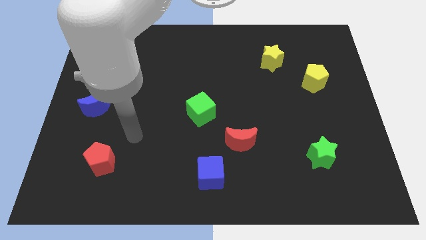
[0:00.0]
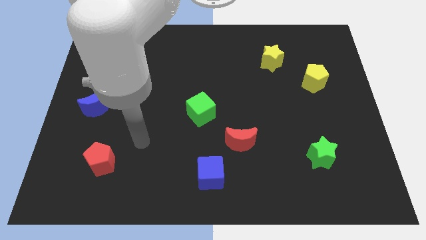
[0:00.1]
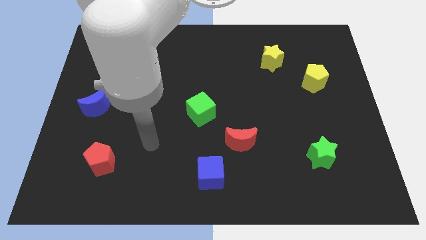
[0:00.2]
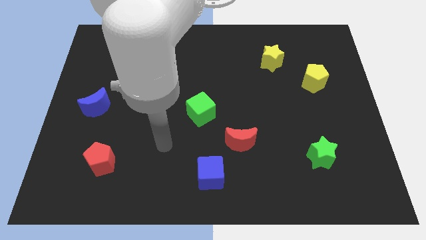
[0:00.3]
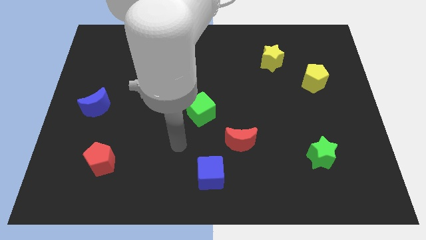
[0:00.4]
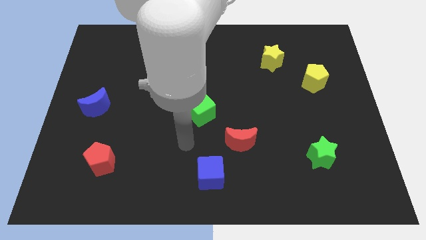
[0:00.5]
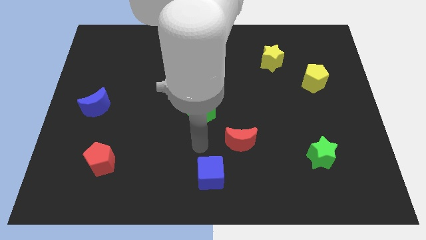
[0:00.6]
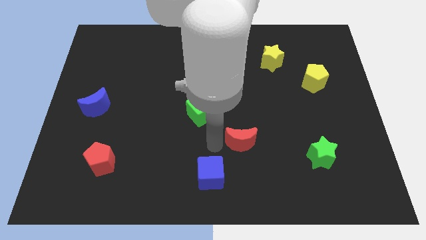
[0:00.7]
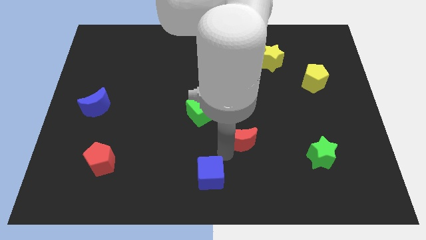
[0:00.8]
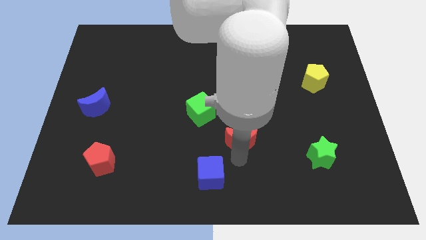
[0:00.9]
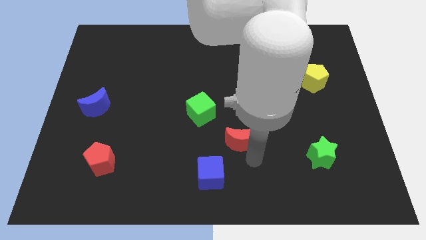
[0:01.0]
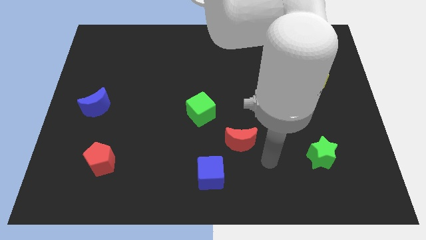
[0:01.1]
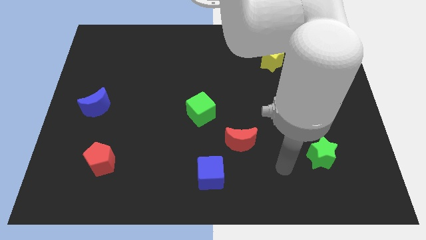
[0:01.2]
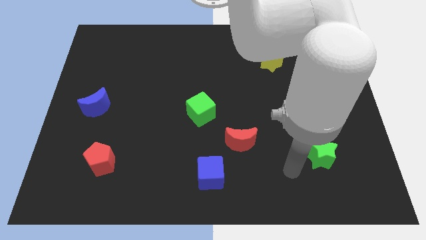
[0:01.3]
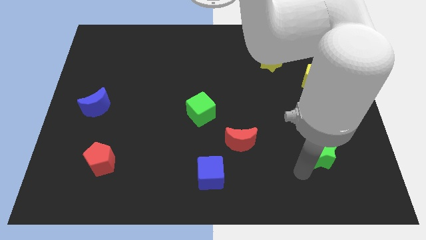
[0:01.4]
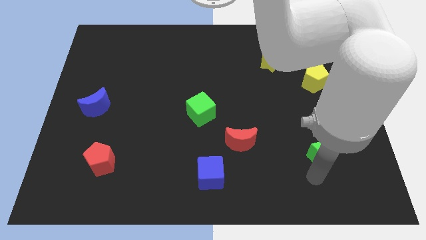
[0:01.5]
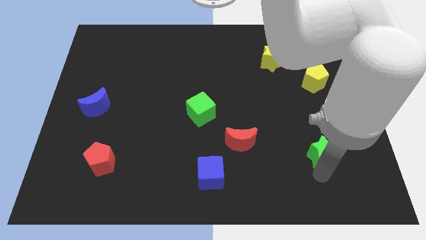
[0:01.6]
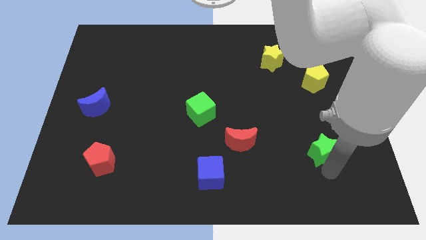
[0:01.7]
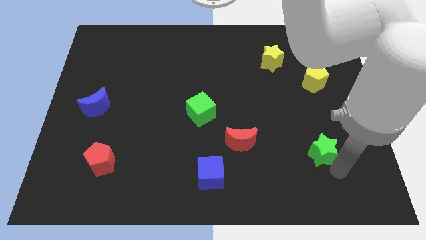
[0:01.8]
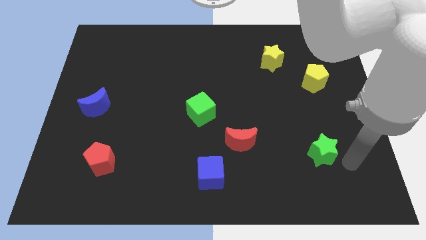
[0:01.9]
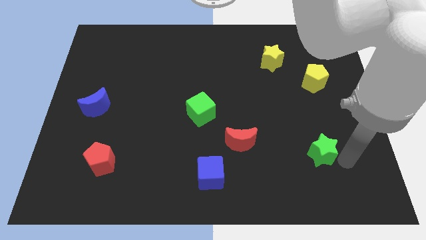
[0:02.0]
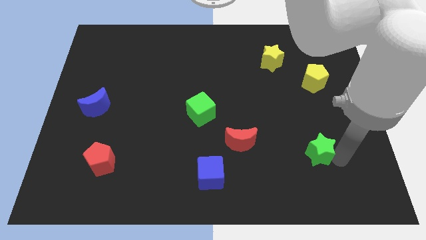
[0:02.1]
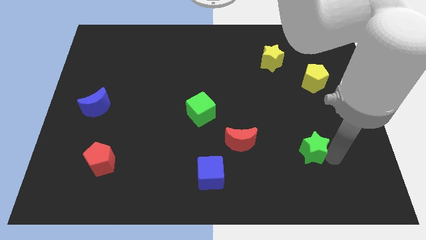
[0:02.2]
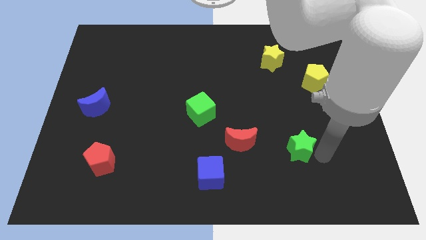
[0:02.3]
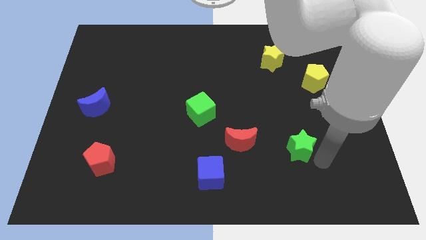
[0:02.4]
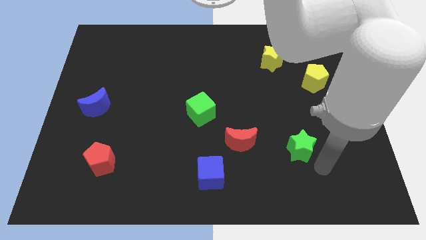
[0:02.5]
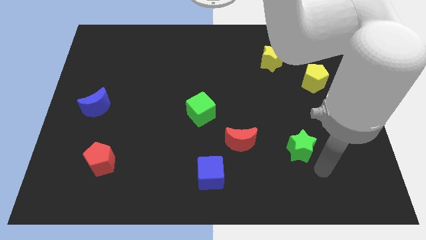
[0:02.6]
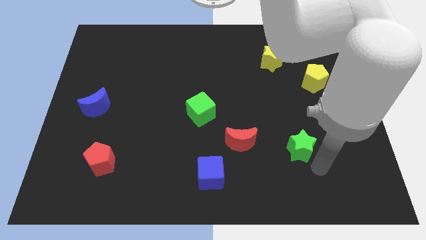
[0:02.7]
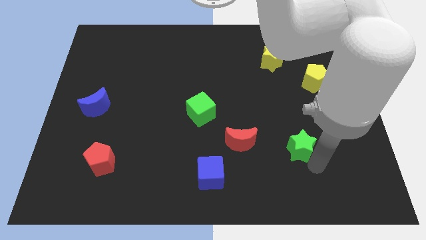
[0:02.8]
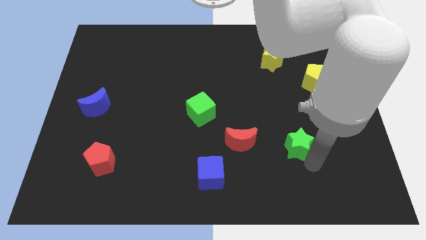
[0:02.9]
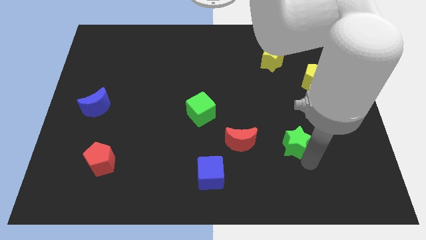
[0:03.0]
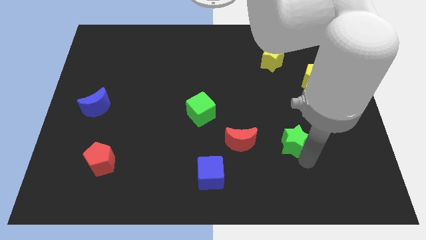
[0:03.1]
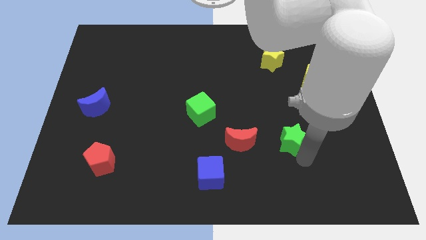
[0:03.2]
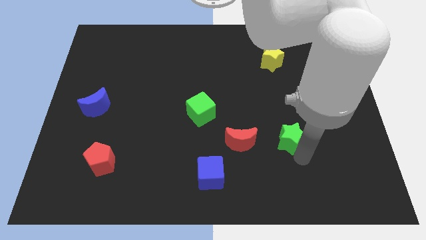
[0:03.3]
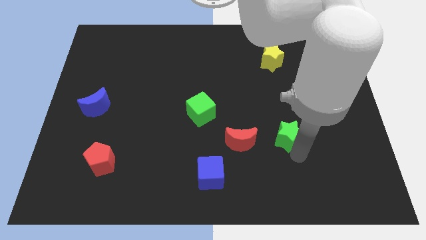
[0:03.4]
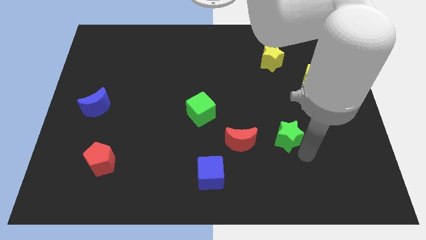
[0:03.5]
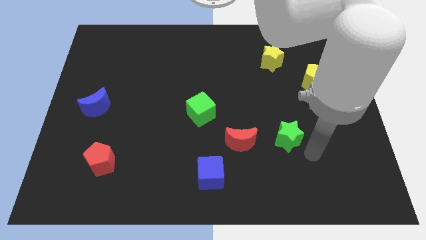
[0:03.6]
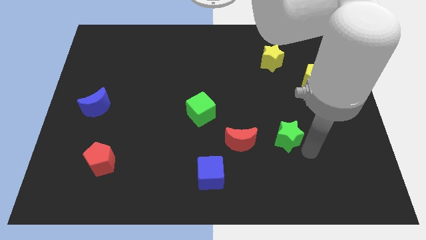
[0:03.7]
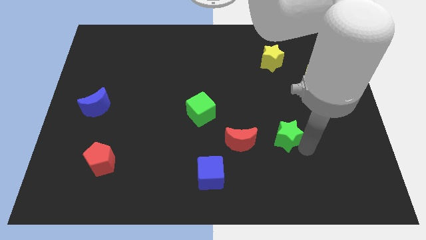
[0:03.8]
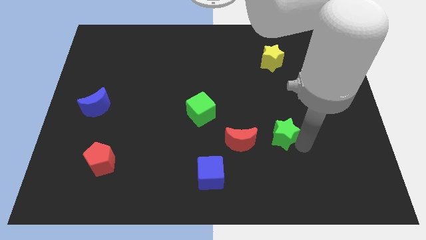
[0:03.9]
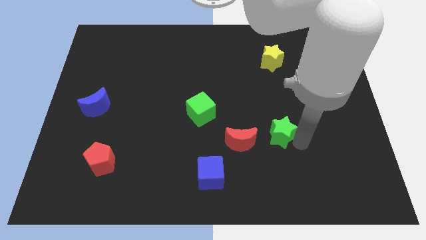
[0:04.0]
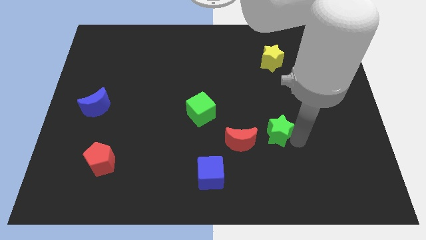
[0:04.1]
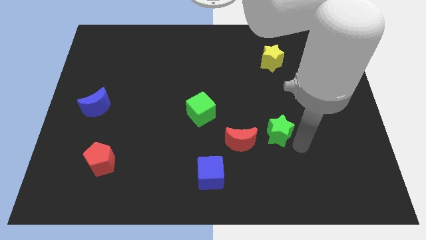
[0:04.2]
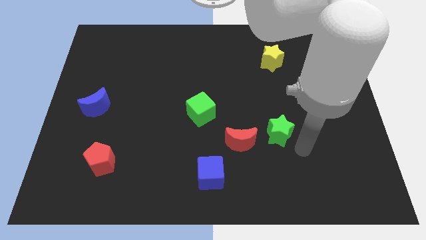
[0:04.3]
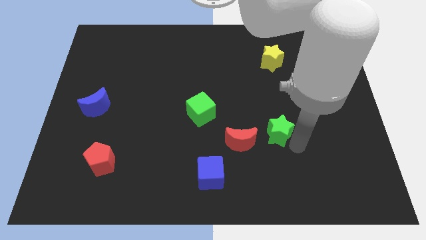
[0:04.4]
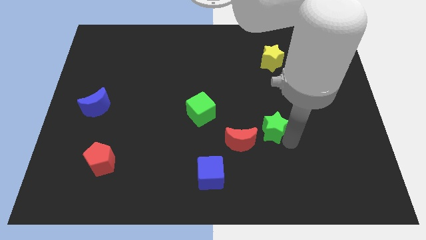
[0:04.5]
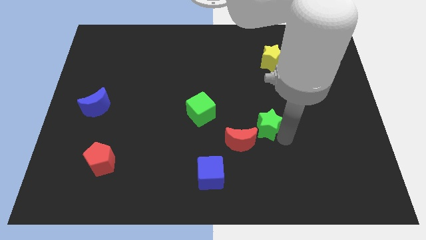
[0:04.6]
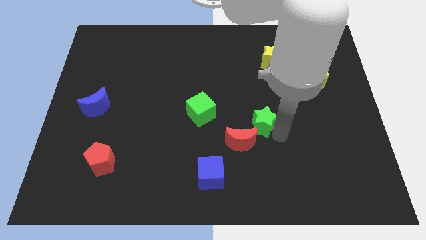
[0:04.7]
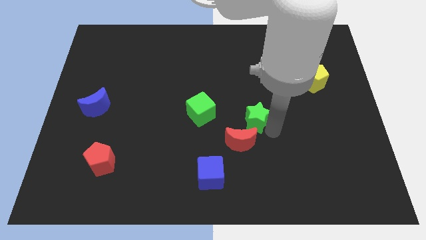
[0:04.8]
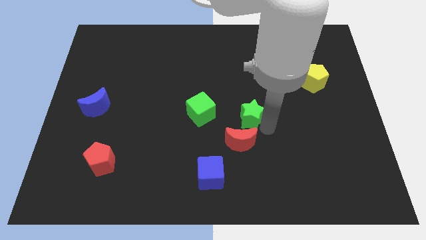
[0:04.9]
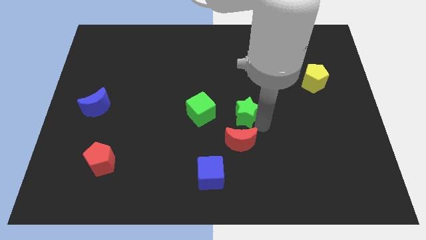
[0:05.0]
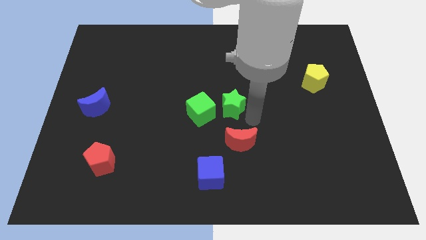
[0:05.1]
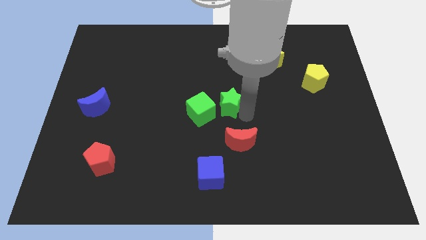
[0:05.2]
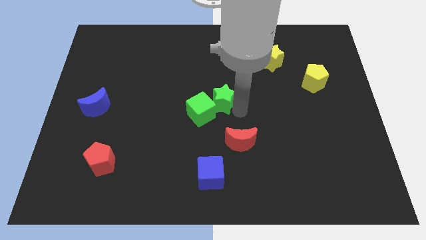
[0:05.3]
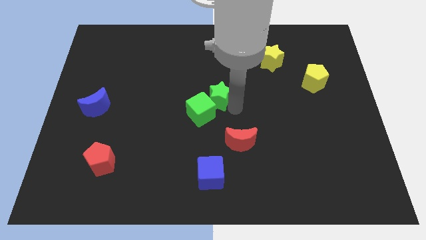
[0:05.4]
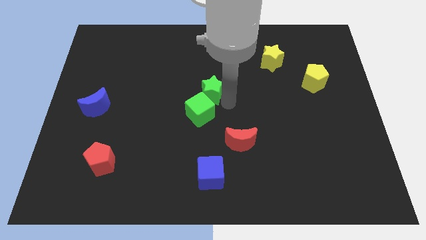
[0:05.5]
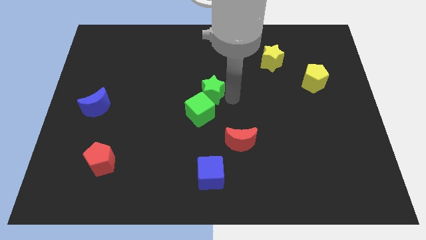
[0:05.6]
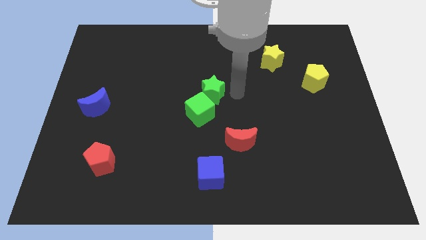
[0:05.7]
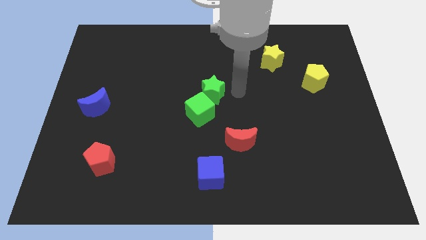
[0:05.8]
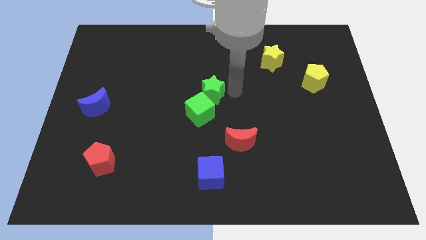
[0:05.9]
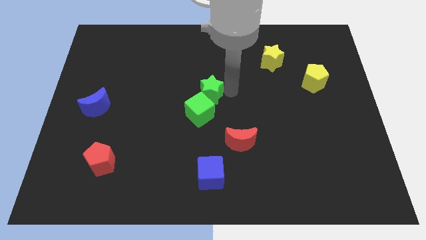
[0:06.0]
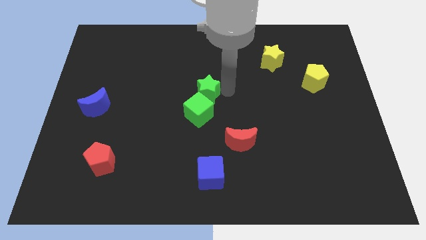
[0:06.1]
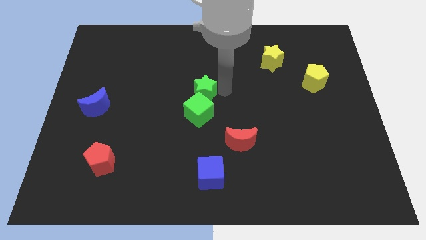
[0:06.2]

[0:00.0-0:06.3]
slide the green star to the top left side of the green cube

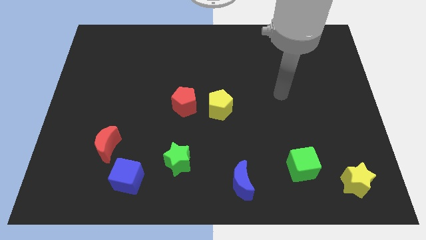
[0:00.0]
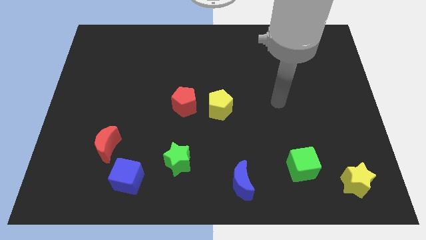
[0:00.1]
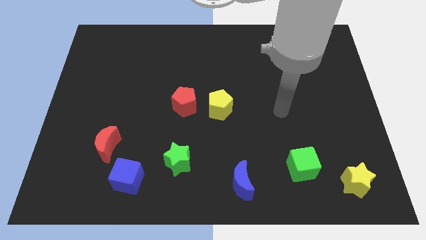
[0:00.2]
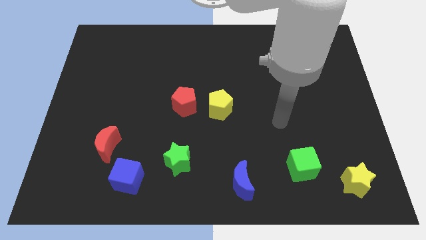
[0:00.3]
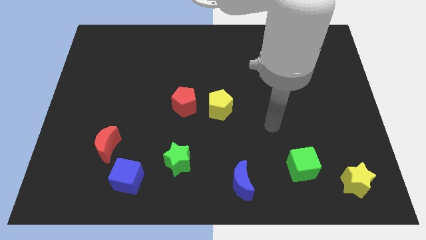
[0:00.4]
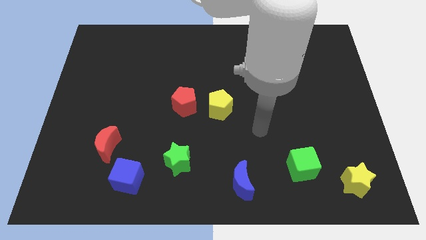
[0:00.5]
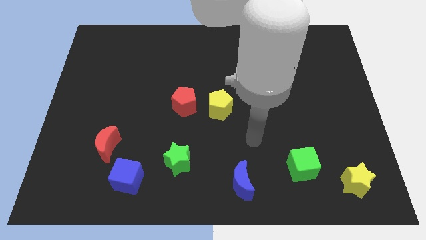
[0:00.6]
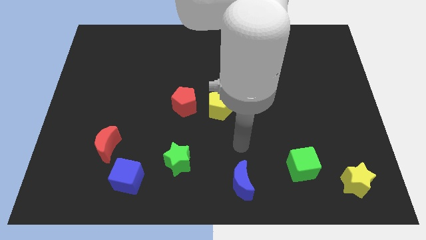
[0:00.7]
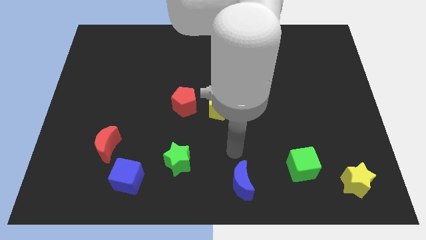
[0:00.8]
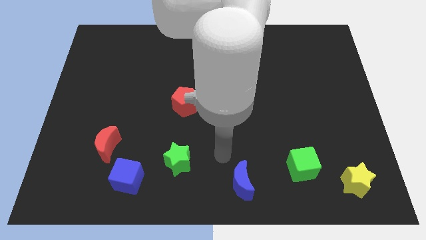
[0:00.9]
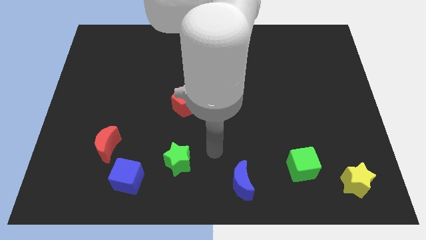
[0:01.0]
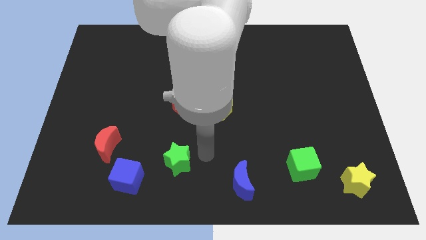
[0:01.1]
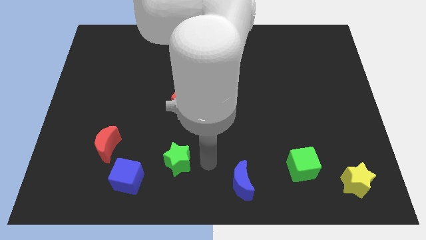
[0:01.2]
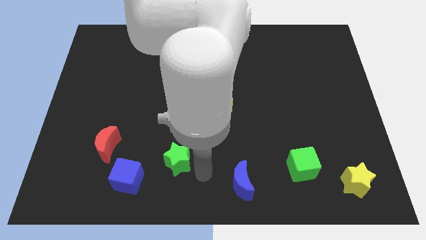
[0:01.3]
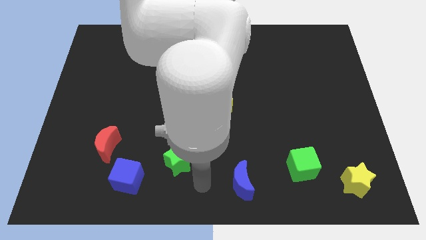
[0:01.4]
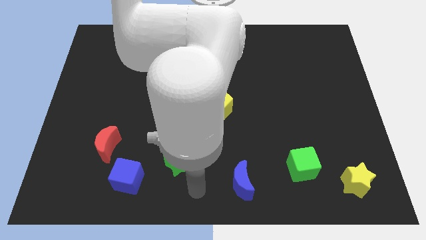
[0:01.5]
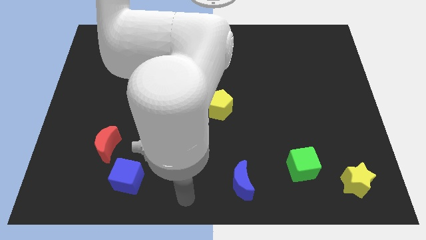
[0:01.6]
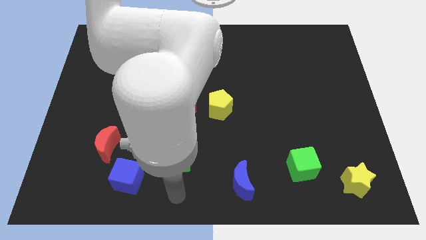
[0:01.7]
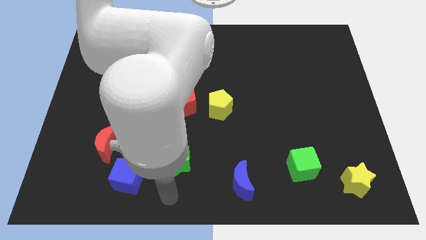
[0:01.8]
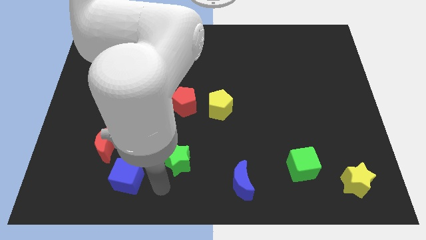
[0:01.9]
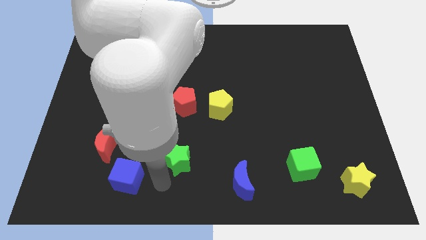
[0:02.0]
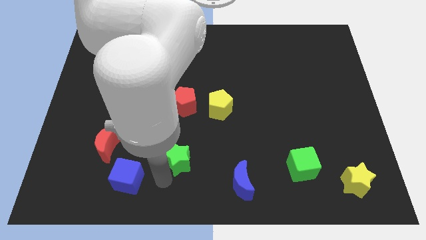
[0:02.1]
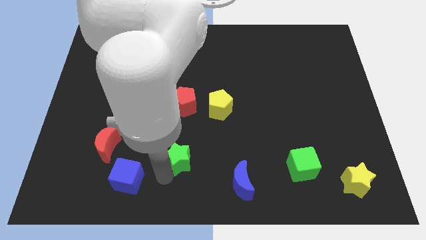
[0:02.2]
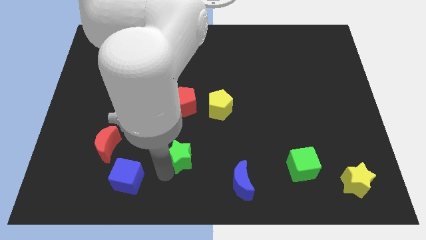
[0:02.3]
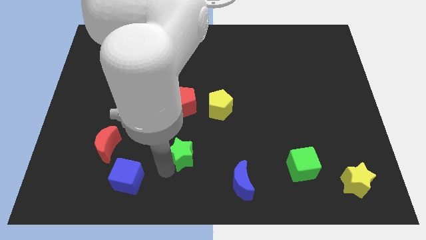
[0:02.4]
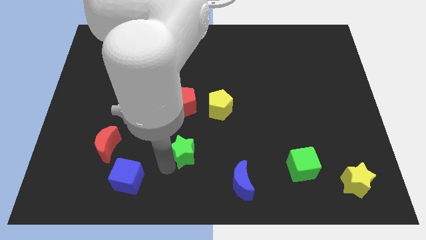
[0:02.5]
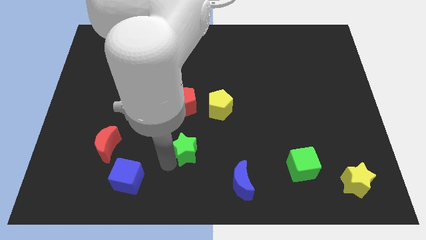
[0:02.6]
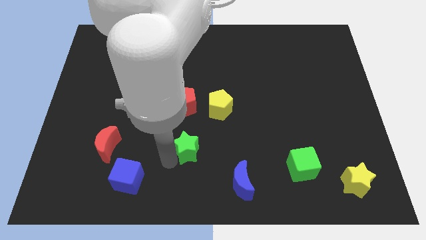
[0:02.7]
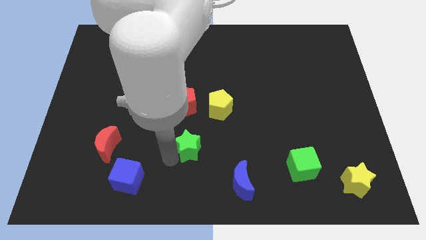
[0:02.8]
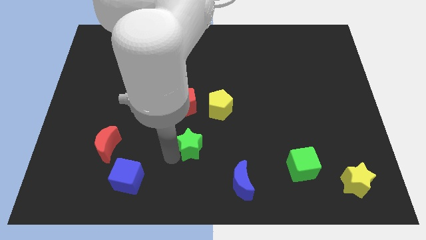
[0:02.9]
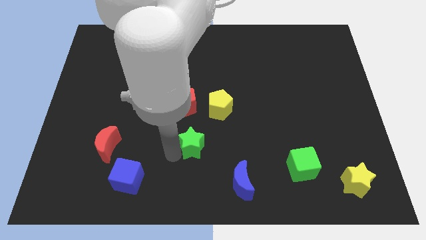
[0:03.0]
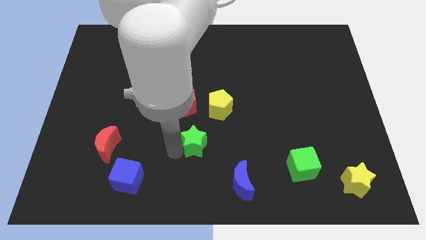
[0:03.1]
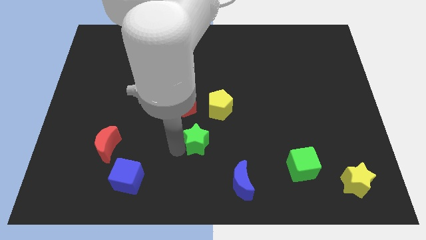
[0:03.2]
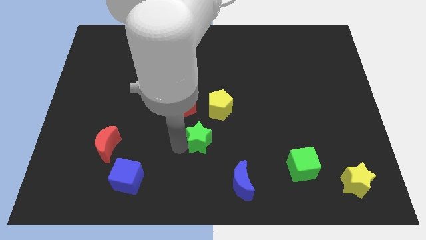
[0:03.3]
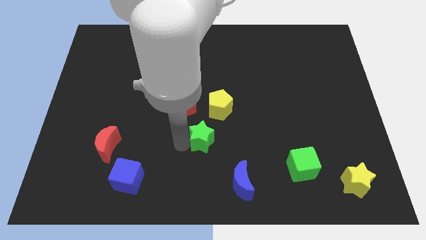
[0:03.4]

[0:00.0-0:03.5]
slide the green star to the bottom right of the red pentagon
